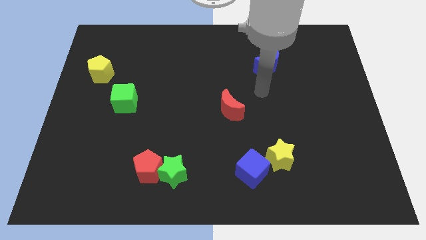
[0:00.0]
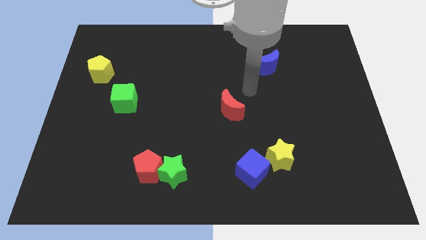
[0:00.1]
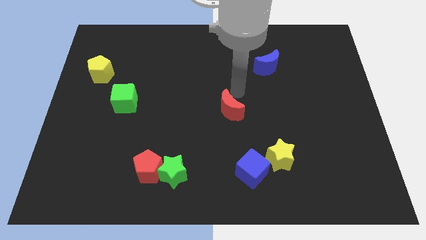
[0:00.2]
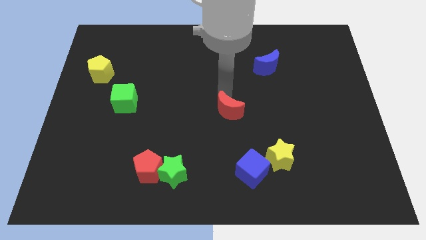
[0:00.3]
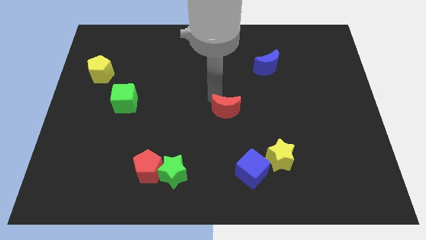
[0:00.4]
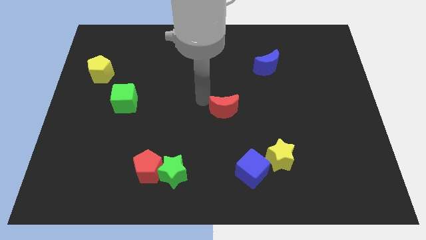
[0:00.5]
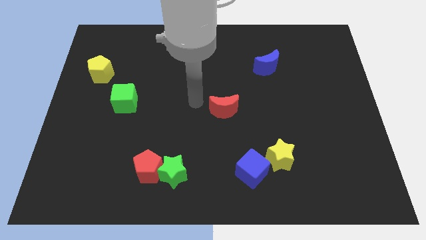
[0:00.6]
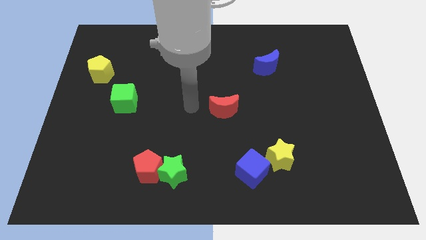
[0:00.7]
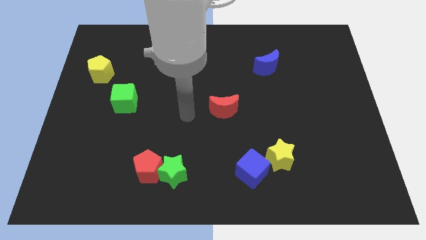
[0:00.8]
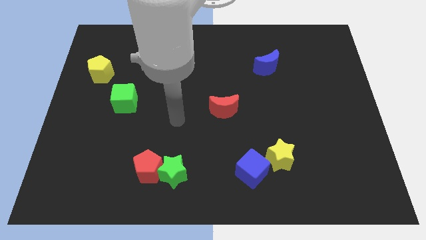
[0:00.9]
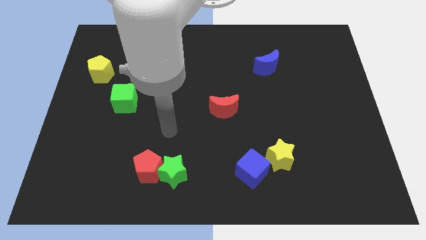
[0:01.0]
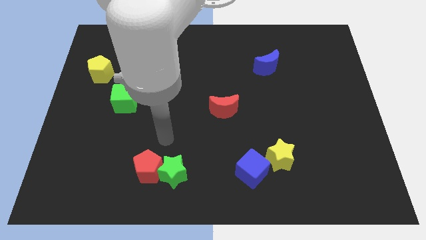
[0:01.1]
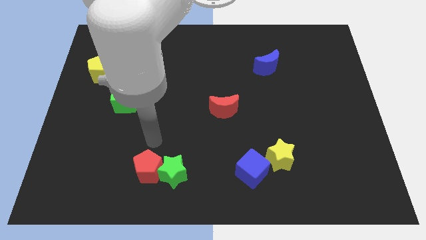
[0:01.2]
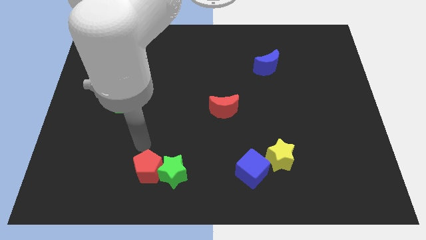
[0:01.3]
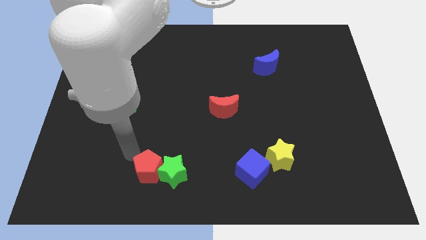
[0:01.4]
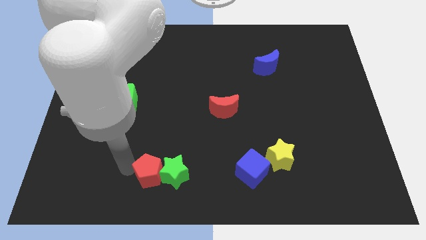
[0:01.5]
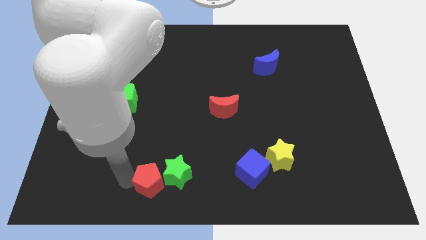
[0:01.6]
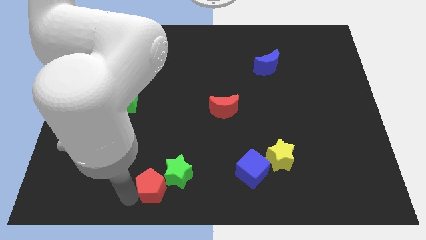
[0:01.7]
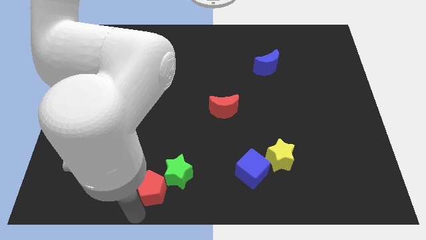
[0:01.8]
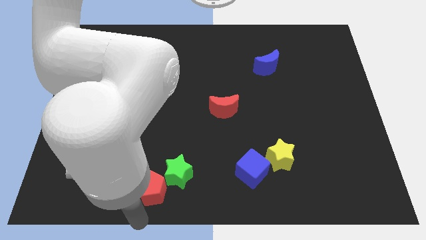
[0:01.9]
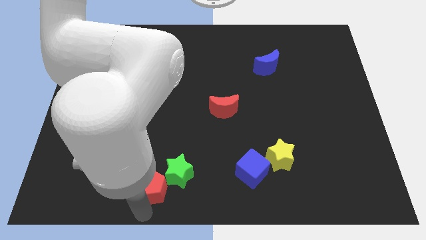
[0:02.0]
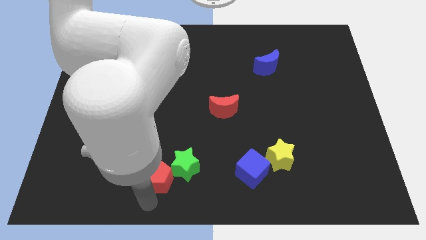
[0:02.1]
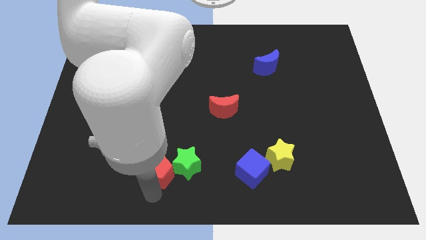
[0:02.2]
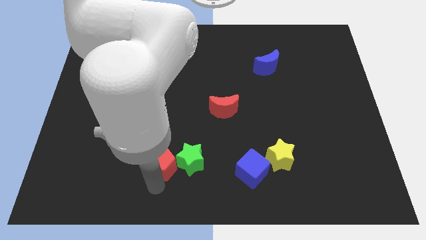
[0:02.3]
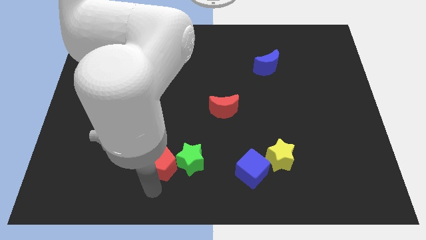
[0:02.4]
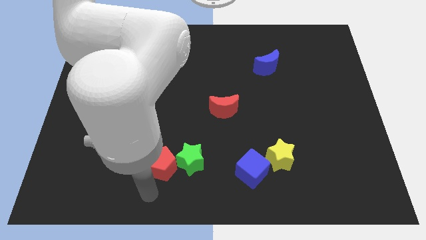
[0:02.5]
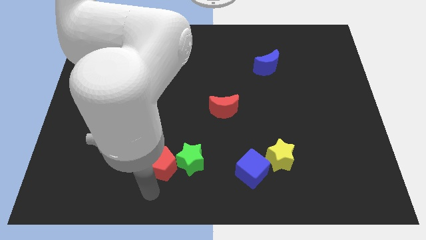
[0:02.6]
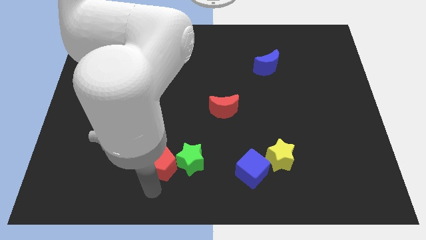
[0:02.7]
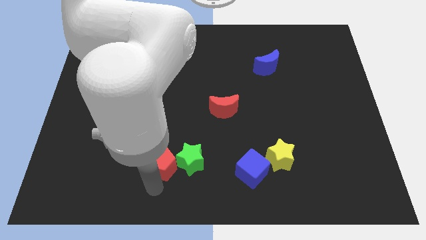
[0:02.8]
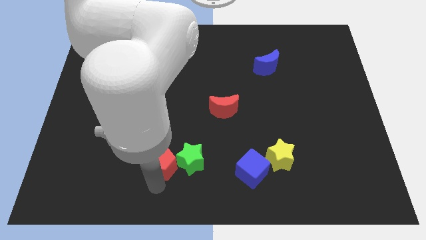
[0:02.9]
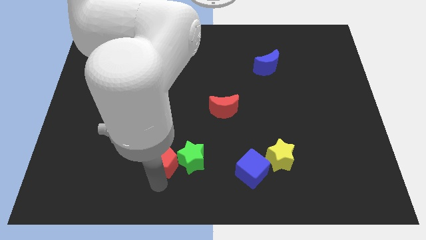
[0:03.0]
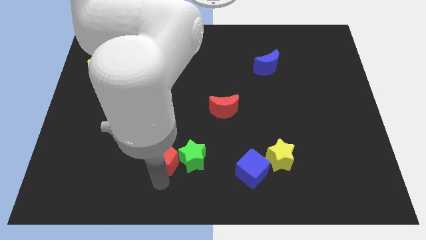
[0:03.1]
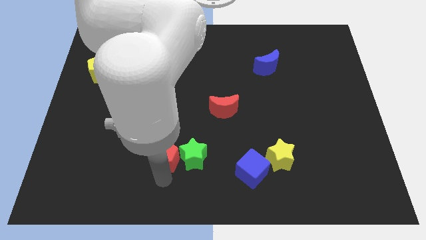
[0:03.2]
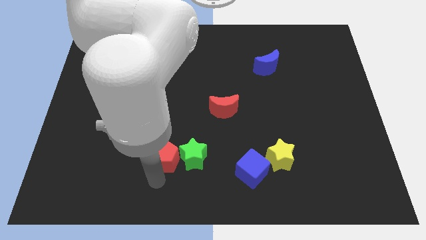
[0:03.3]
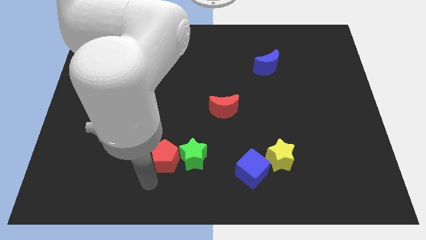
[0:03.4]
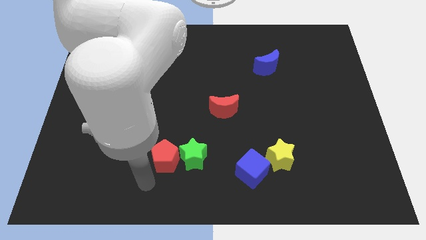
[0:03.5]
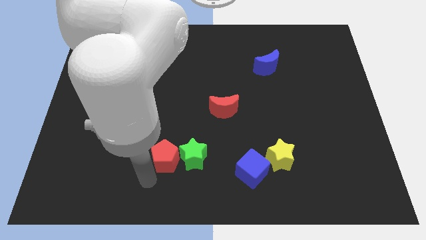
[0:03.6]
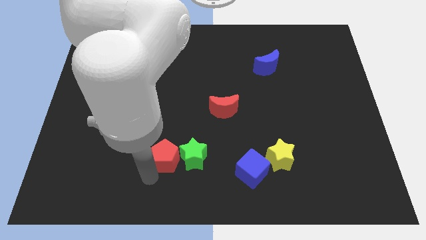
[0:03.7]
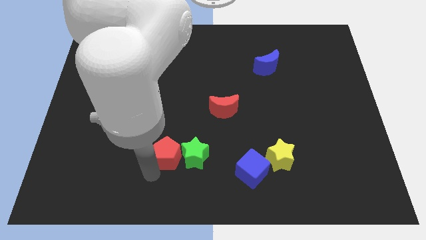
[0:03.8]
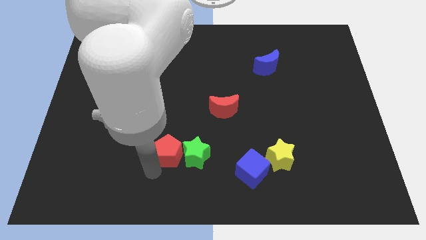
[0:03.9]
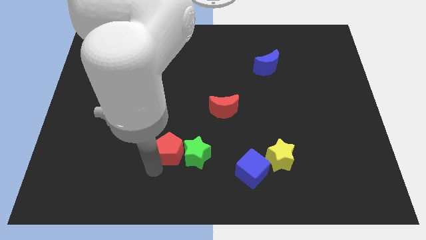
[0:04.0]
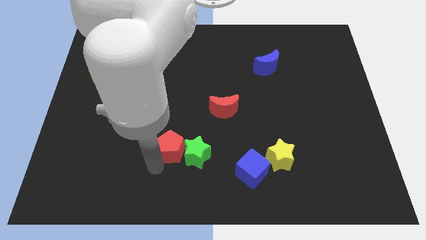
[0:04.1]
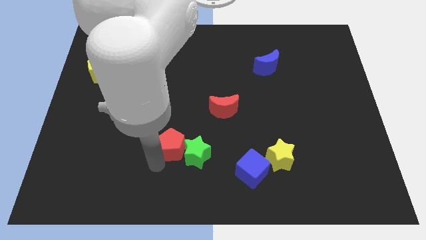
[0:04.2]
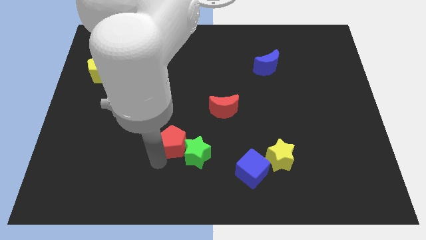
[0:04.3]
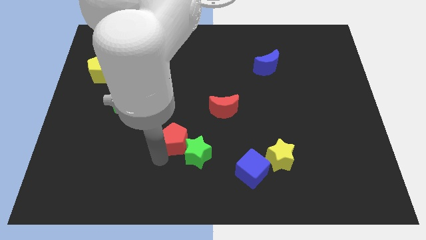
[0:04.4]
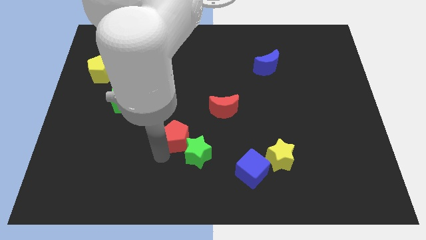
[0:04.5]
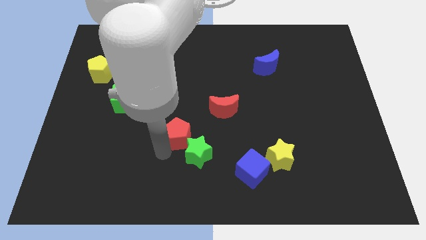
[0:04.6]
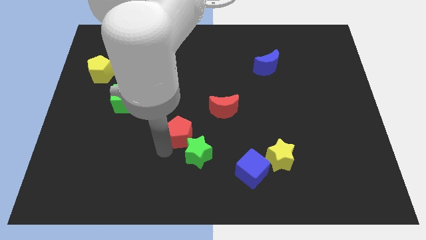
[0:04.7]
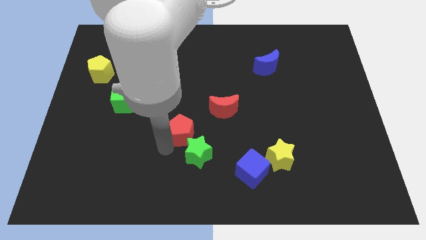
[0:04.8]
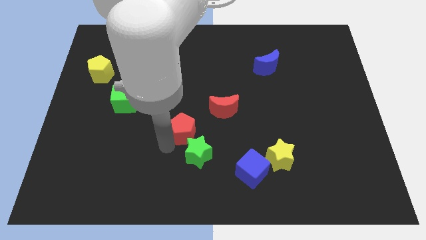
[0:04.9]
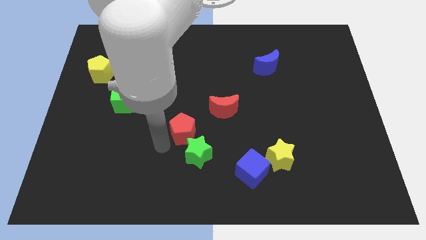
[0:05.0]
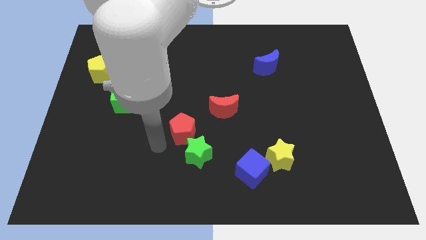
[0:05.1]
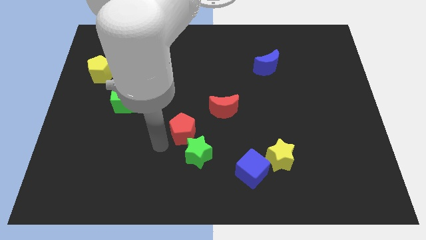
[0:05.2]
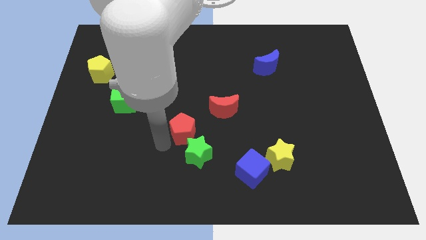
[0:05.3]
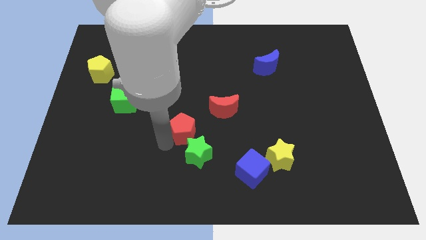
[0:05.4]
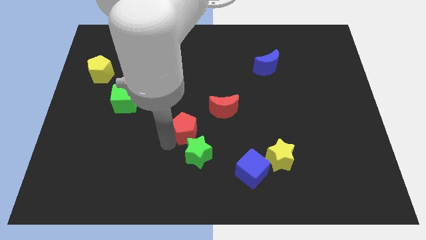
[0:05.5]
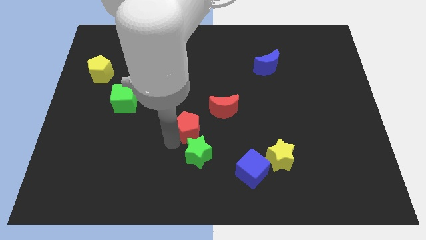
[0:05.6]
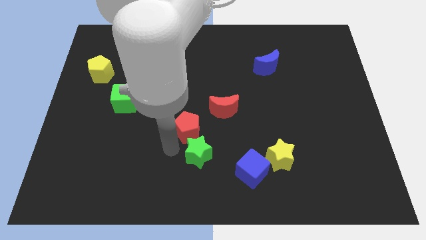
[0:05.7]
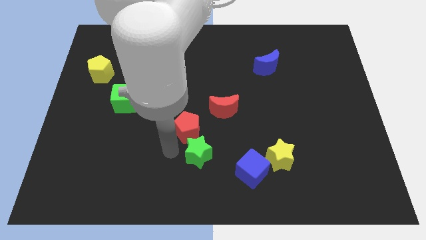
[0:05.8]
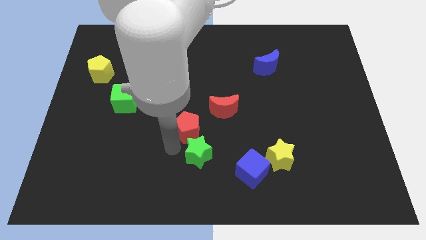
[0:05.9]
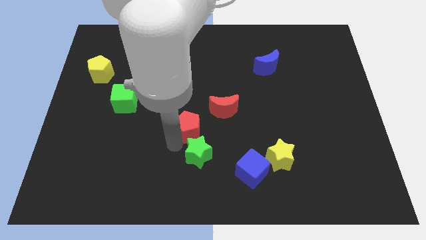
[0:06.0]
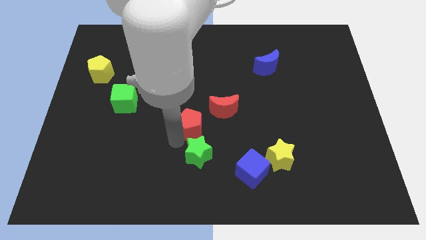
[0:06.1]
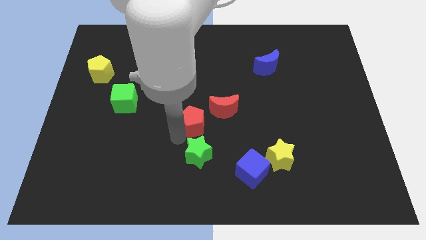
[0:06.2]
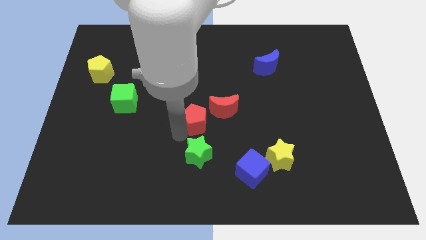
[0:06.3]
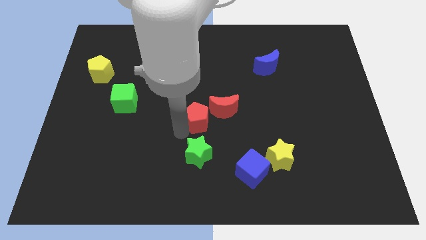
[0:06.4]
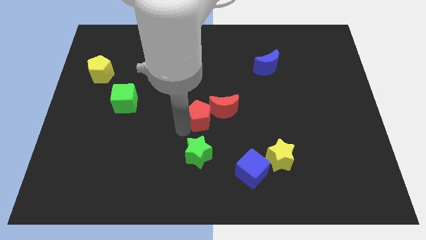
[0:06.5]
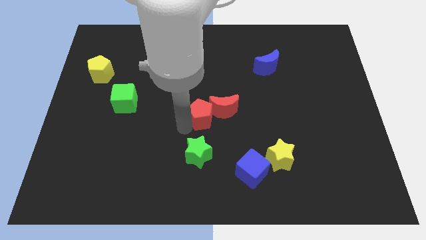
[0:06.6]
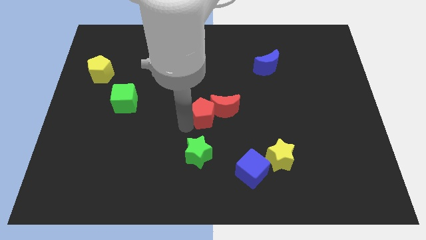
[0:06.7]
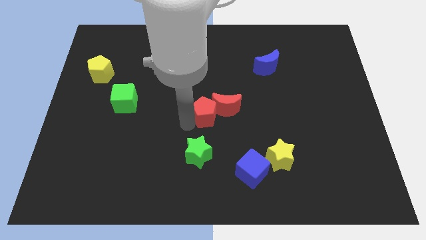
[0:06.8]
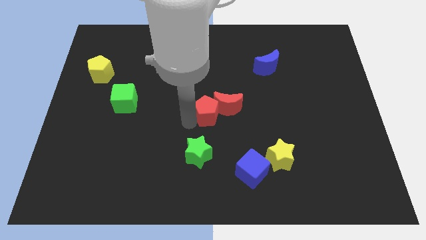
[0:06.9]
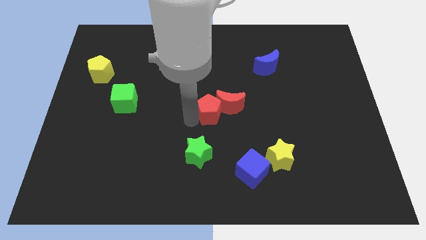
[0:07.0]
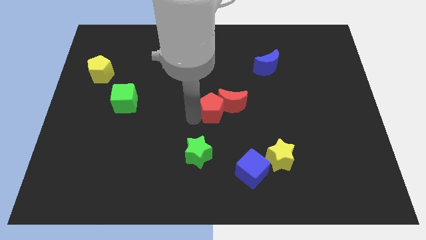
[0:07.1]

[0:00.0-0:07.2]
slide the red pentagon diagonally upwards and right

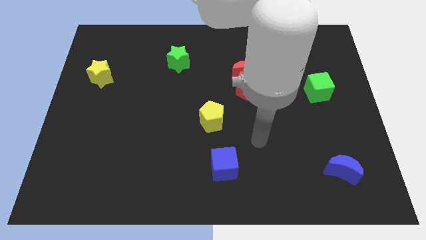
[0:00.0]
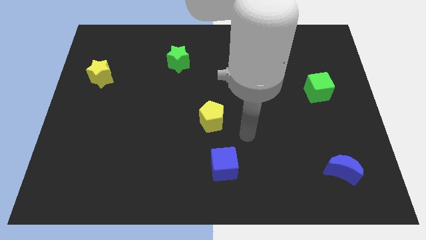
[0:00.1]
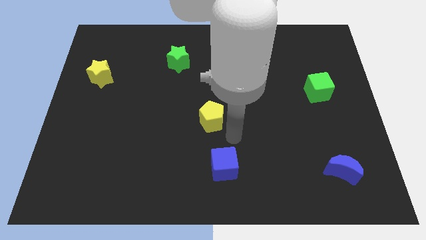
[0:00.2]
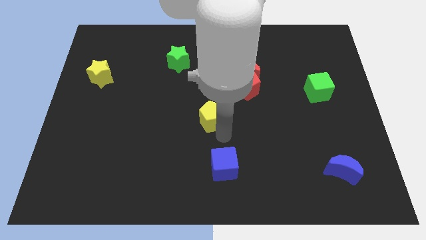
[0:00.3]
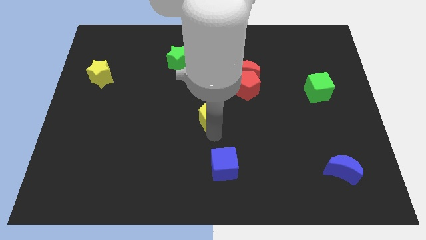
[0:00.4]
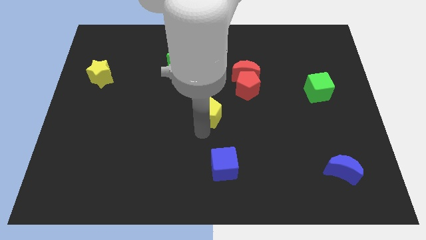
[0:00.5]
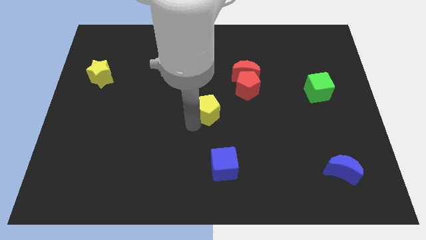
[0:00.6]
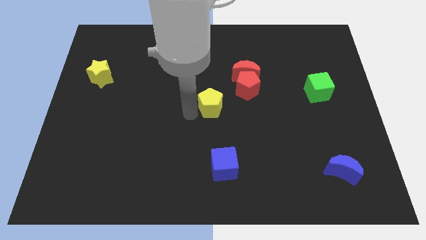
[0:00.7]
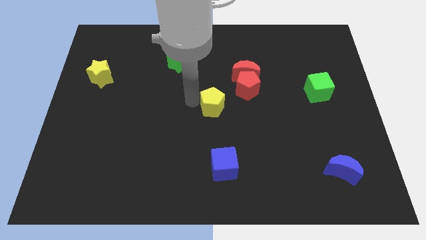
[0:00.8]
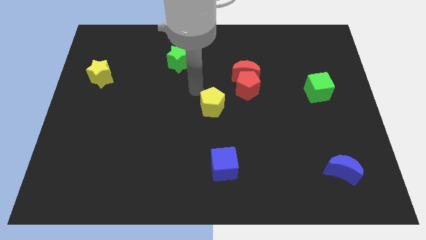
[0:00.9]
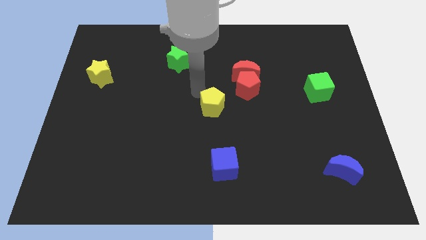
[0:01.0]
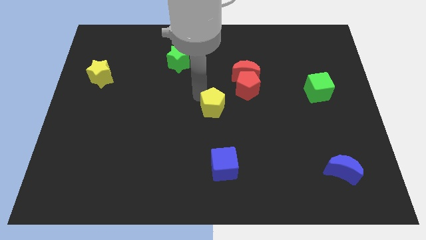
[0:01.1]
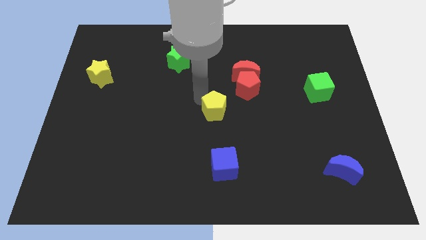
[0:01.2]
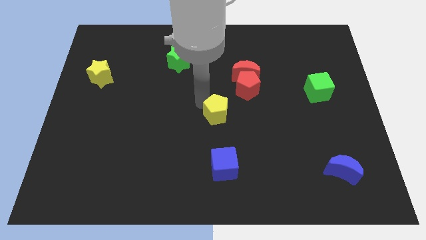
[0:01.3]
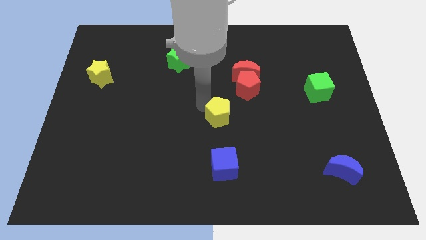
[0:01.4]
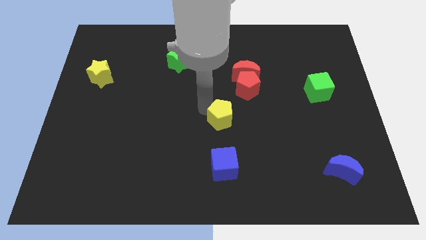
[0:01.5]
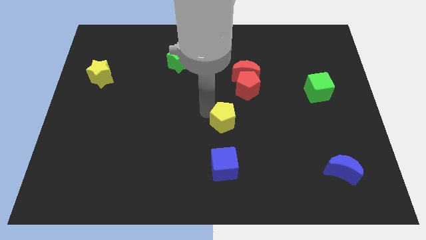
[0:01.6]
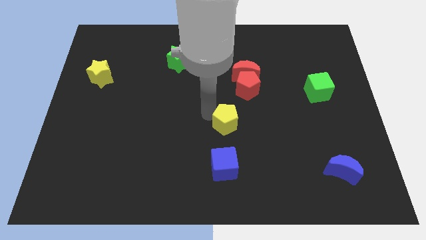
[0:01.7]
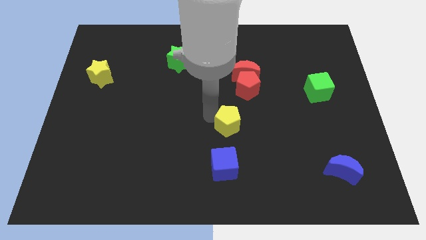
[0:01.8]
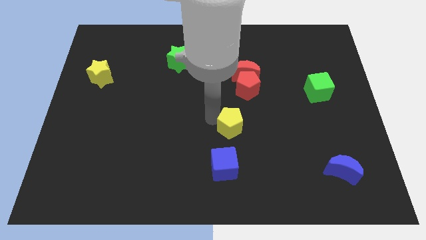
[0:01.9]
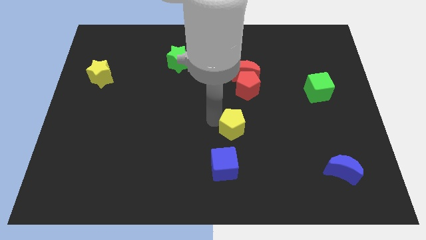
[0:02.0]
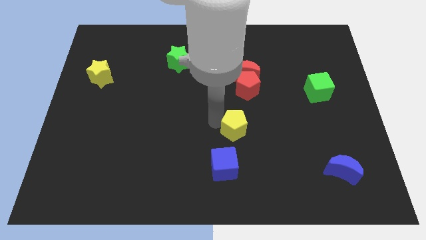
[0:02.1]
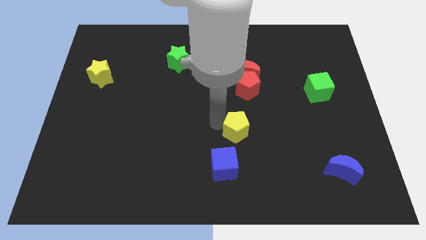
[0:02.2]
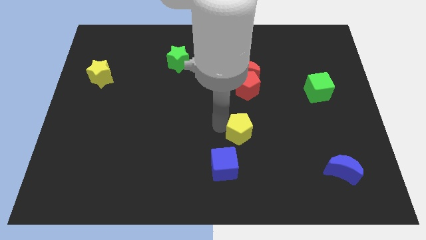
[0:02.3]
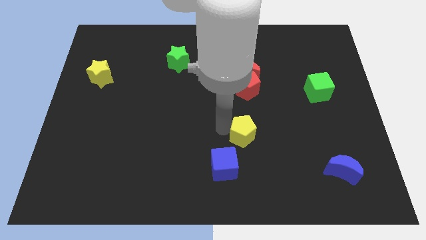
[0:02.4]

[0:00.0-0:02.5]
push the yellow pentagon somewhat downwards and right diagonally
